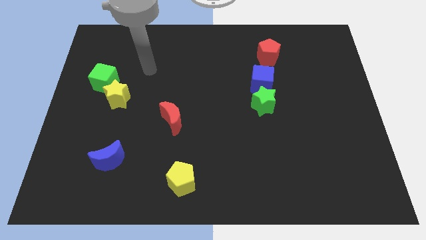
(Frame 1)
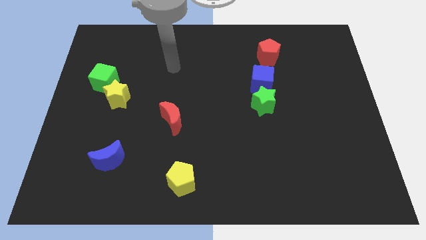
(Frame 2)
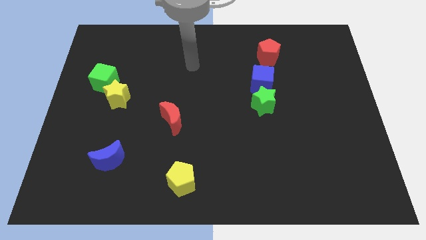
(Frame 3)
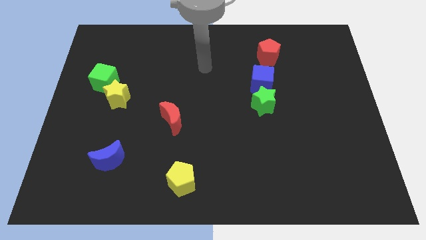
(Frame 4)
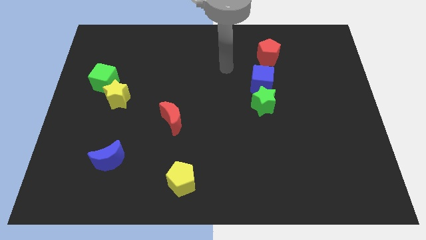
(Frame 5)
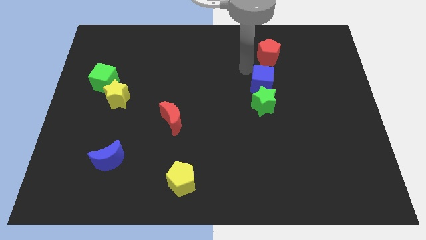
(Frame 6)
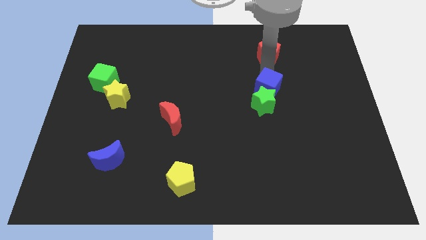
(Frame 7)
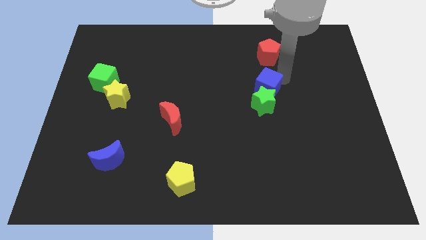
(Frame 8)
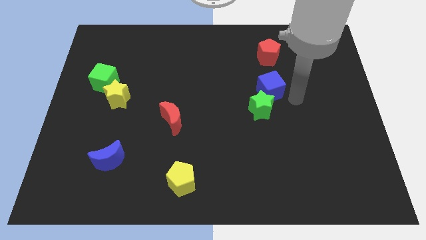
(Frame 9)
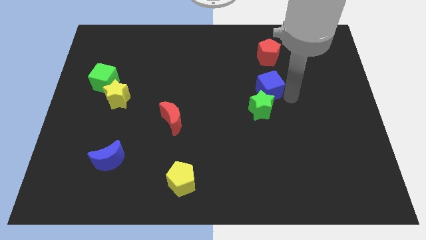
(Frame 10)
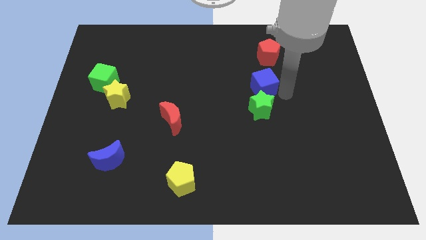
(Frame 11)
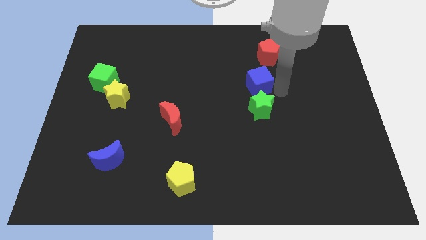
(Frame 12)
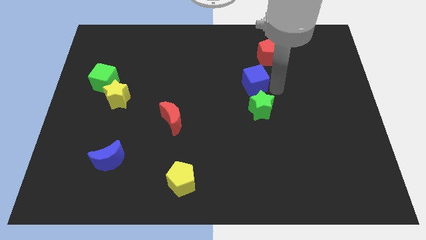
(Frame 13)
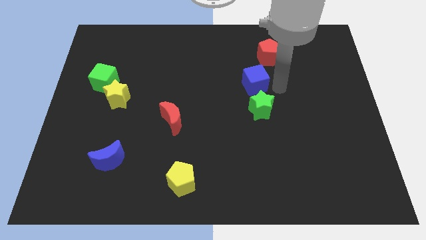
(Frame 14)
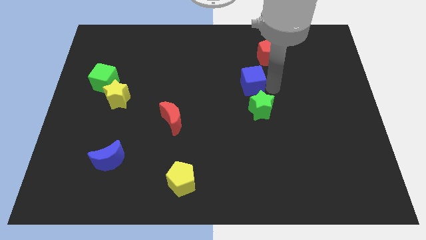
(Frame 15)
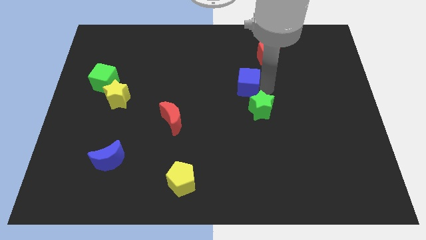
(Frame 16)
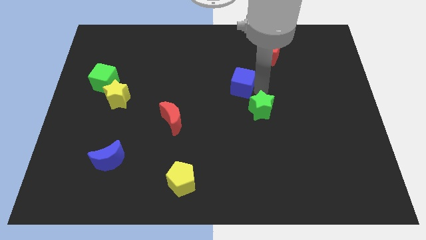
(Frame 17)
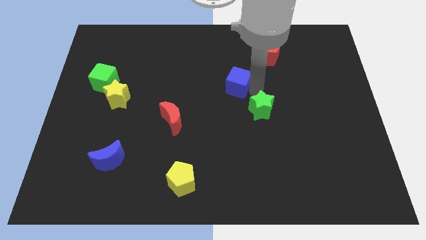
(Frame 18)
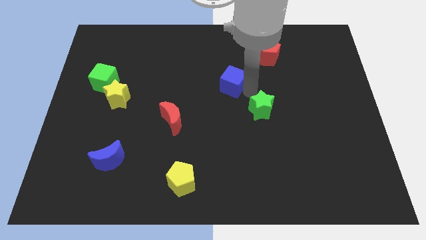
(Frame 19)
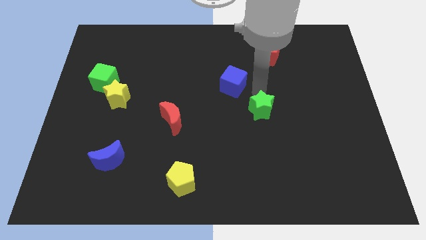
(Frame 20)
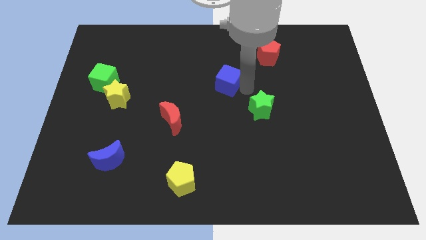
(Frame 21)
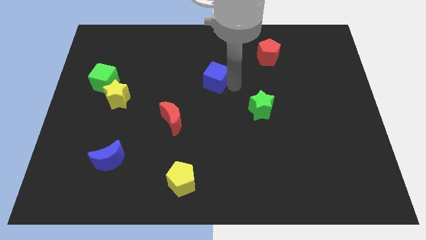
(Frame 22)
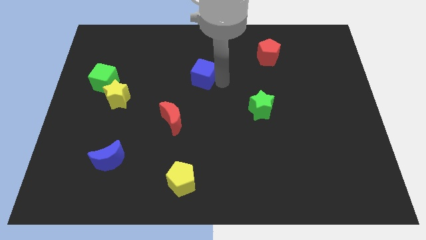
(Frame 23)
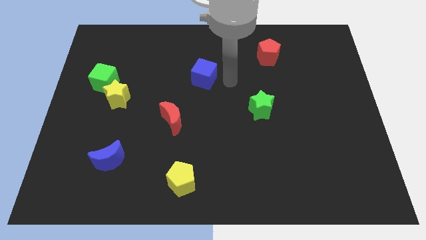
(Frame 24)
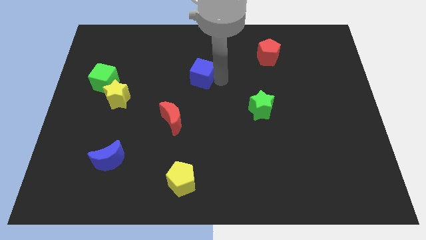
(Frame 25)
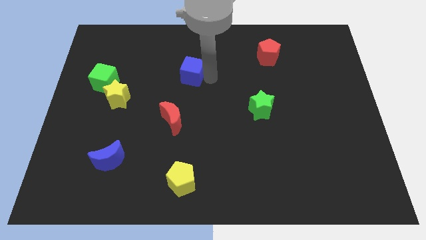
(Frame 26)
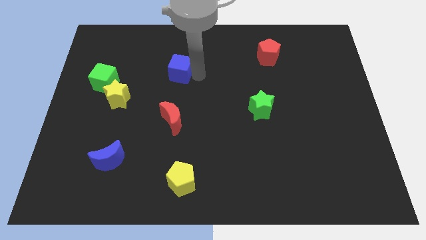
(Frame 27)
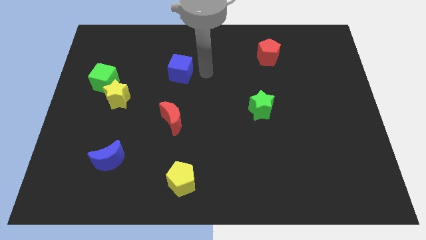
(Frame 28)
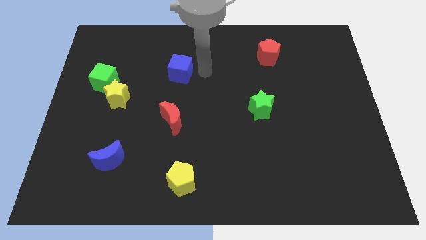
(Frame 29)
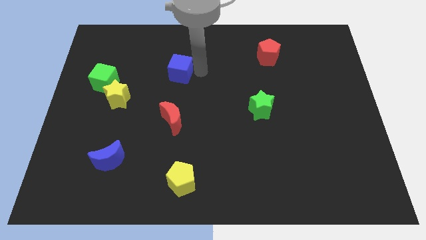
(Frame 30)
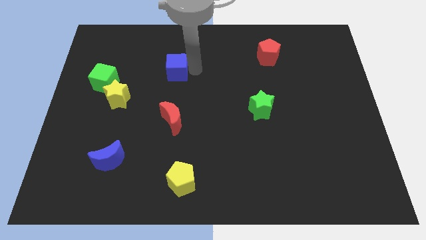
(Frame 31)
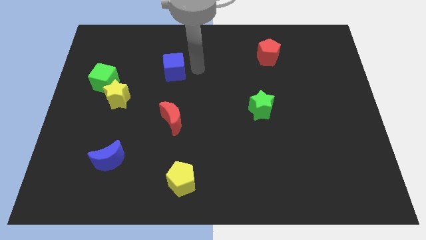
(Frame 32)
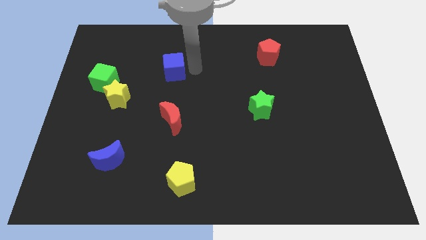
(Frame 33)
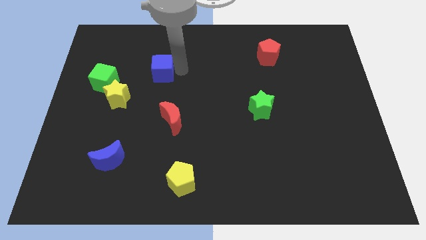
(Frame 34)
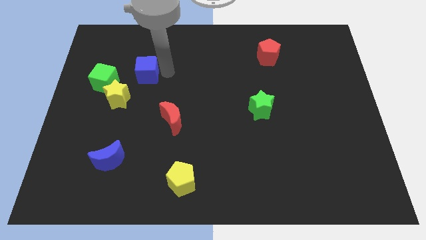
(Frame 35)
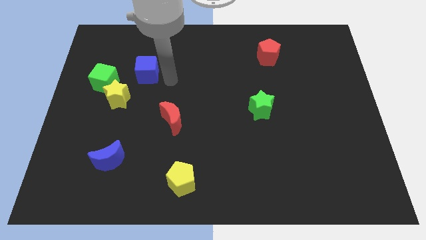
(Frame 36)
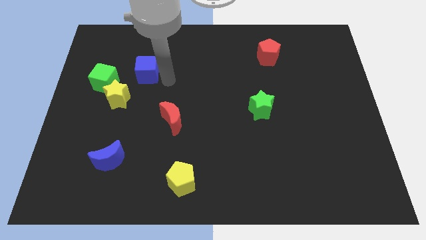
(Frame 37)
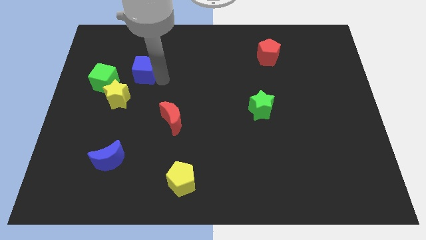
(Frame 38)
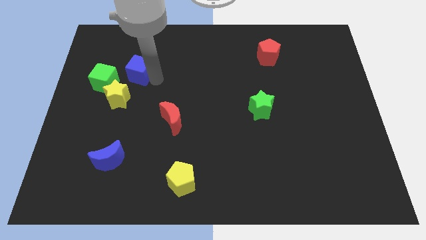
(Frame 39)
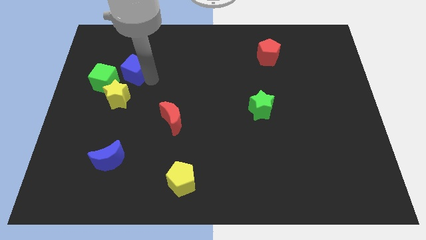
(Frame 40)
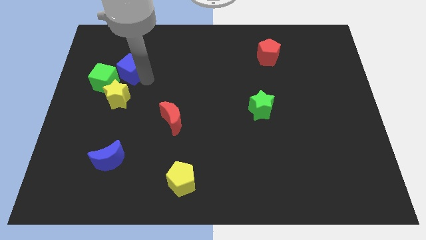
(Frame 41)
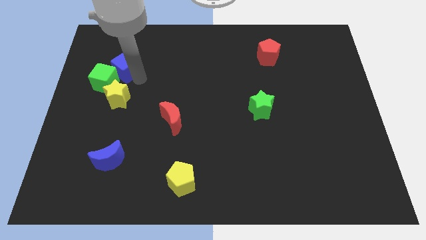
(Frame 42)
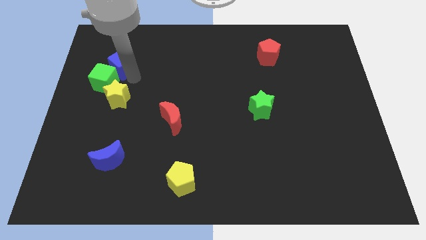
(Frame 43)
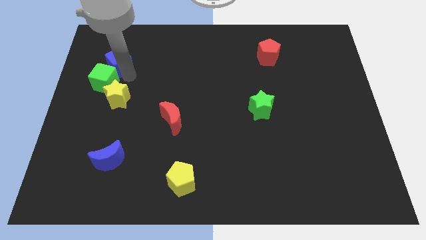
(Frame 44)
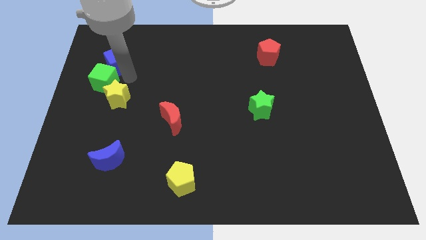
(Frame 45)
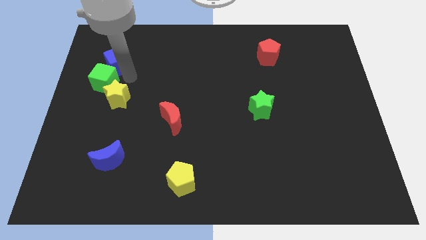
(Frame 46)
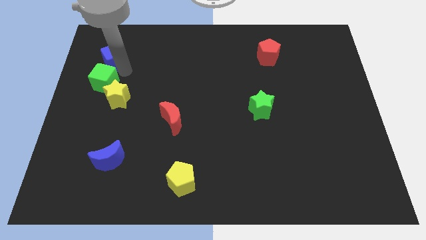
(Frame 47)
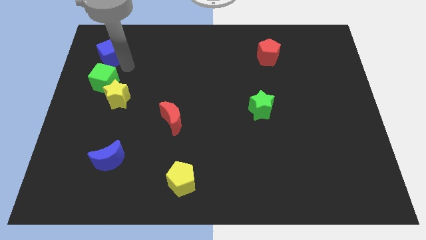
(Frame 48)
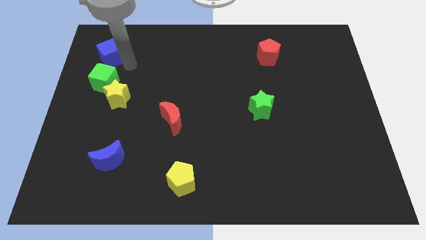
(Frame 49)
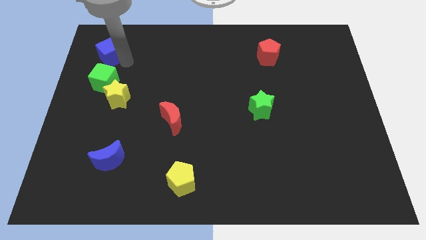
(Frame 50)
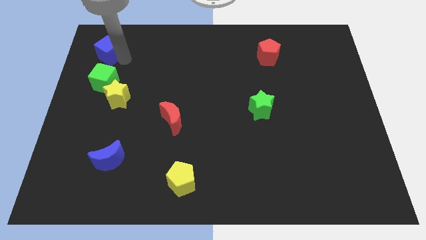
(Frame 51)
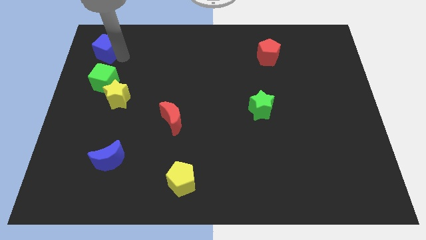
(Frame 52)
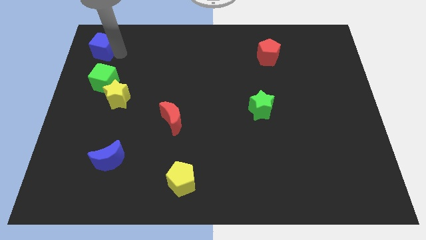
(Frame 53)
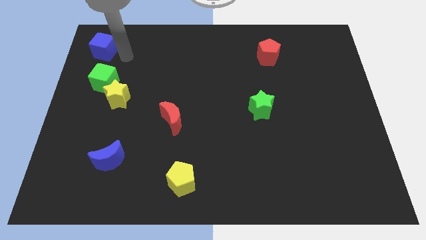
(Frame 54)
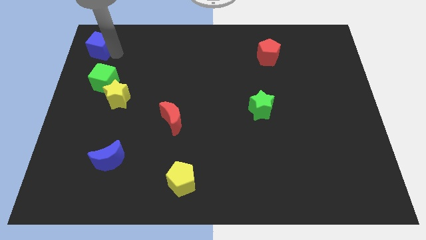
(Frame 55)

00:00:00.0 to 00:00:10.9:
slide the blue cube to the top left corner
